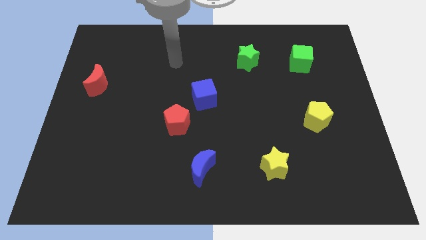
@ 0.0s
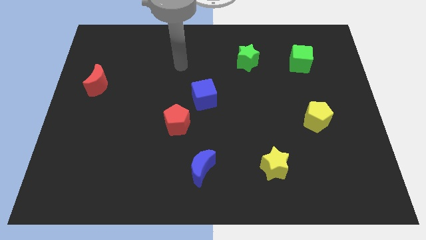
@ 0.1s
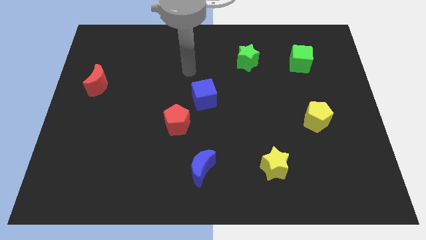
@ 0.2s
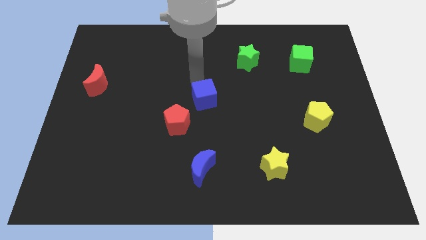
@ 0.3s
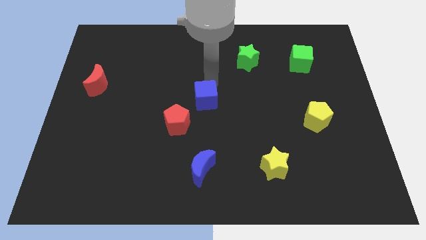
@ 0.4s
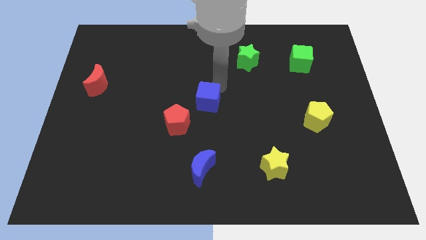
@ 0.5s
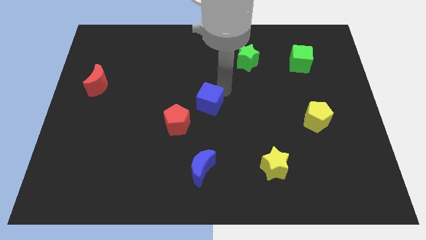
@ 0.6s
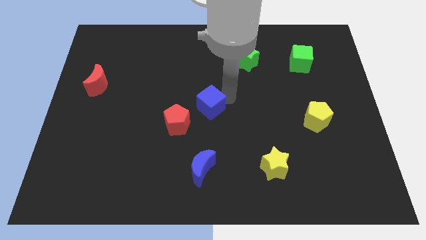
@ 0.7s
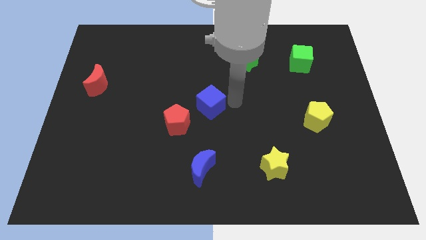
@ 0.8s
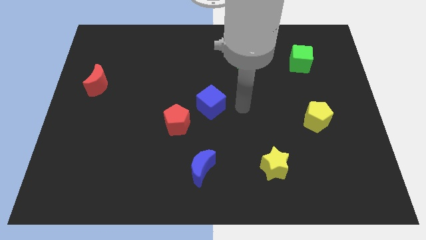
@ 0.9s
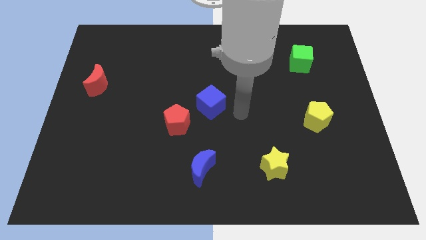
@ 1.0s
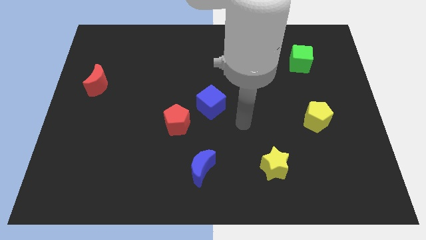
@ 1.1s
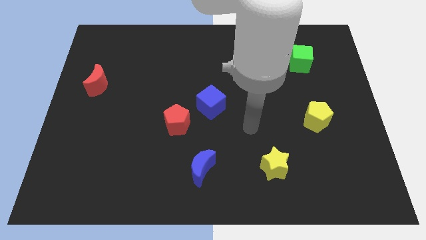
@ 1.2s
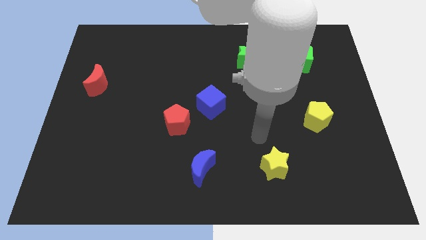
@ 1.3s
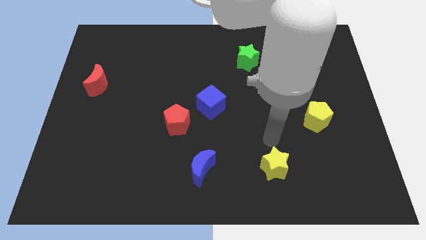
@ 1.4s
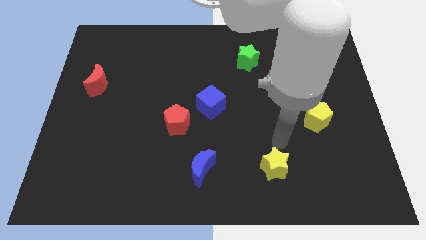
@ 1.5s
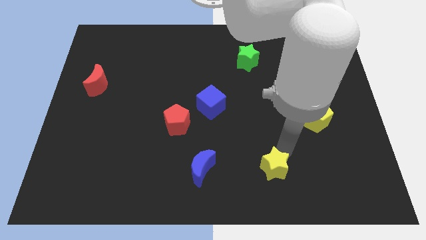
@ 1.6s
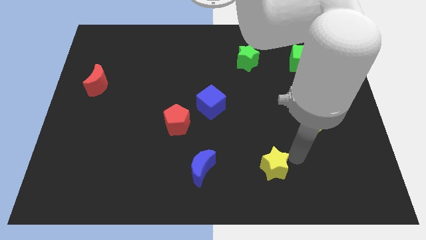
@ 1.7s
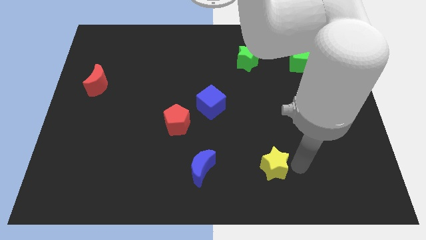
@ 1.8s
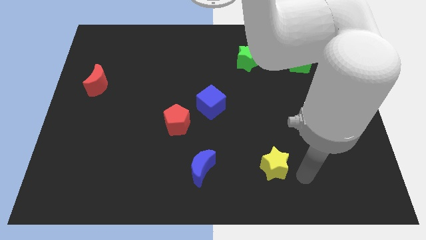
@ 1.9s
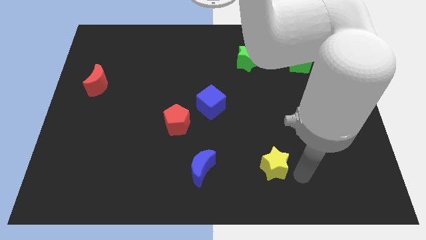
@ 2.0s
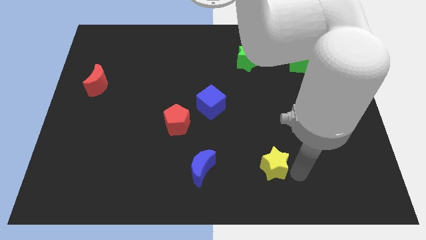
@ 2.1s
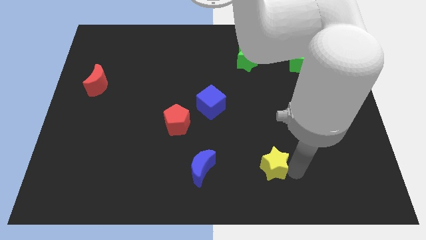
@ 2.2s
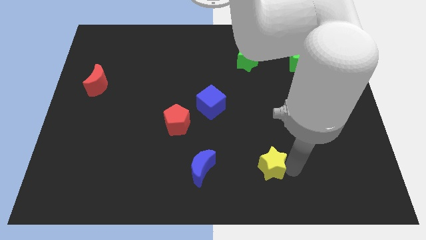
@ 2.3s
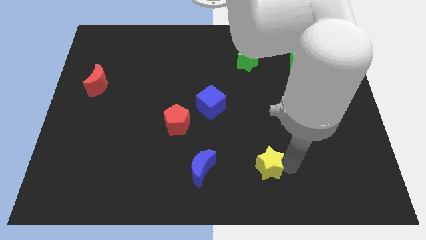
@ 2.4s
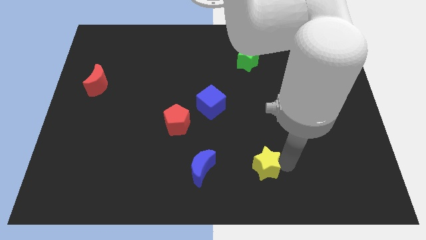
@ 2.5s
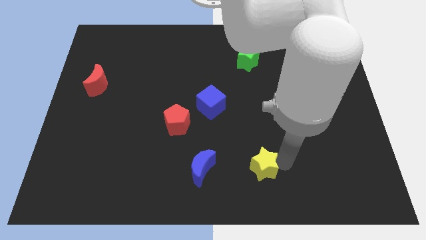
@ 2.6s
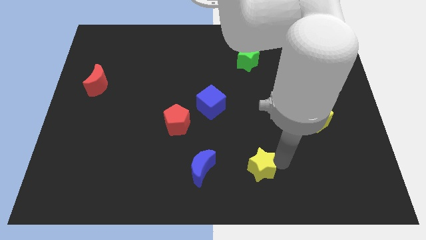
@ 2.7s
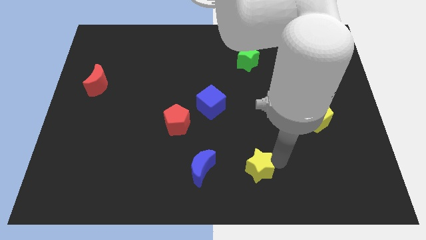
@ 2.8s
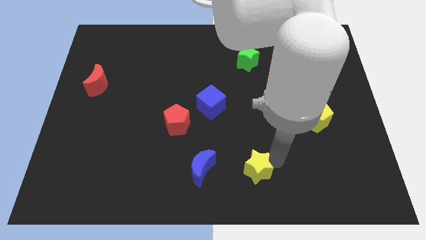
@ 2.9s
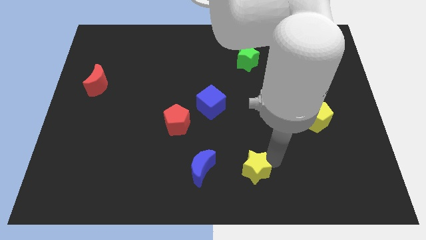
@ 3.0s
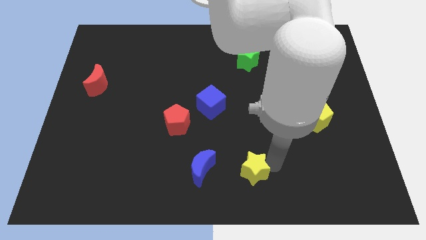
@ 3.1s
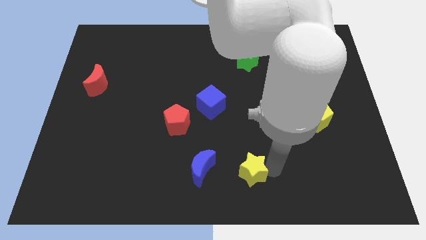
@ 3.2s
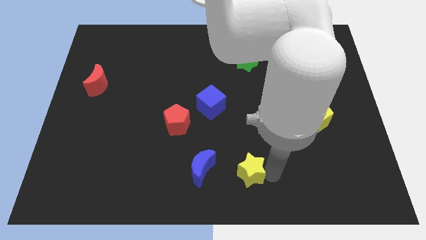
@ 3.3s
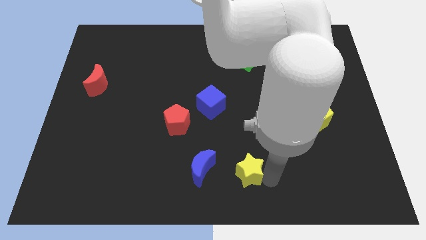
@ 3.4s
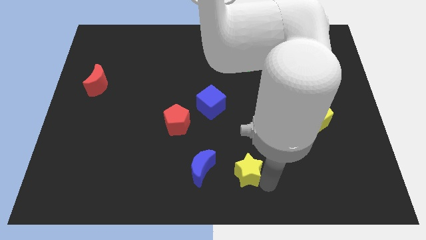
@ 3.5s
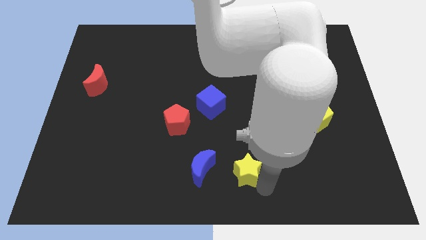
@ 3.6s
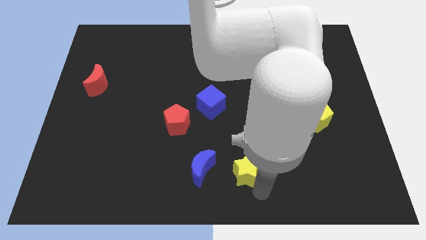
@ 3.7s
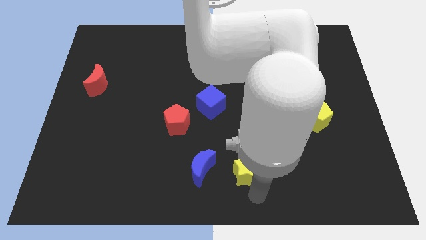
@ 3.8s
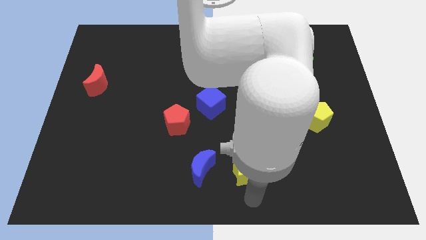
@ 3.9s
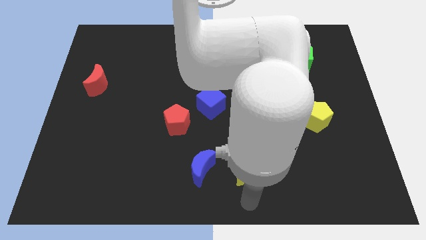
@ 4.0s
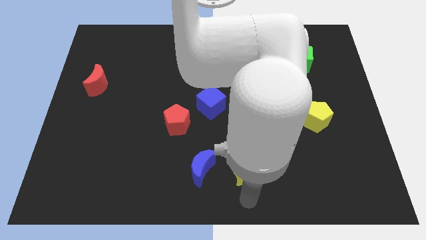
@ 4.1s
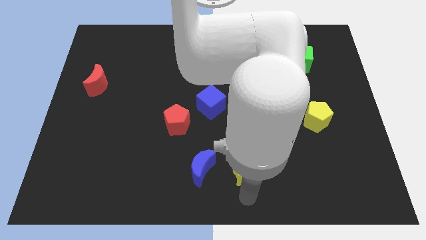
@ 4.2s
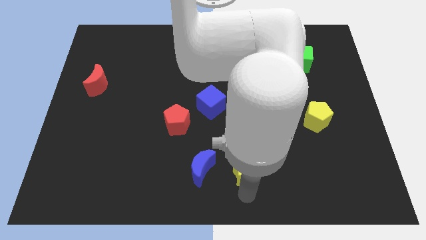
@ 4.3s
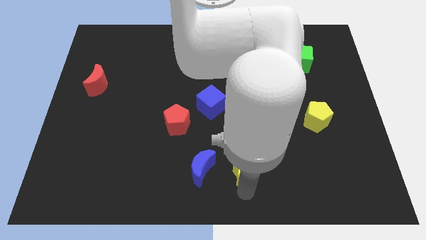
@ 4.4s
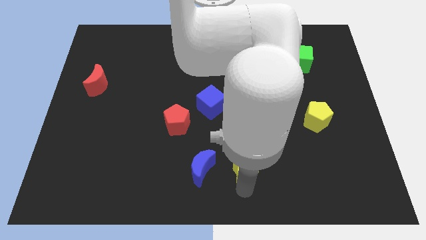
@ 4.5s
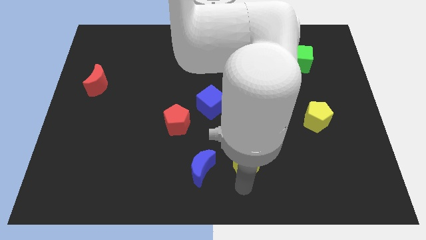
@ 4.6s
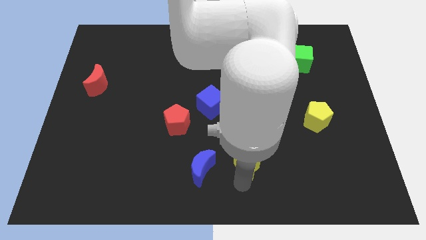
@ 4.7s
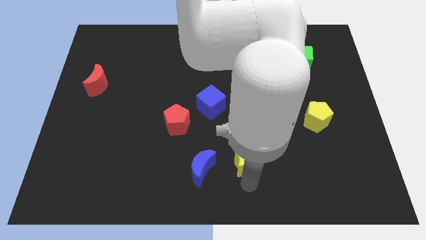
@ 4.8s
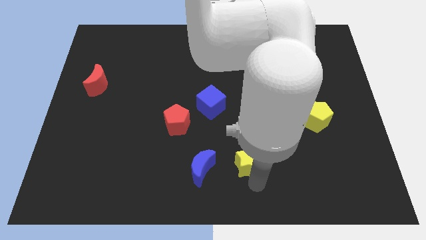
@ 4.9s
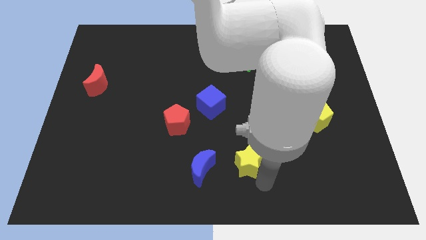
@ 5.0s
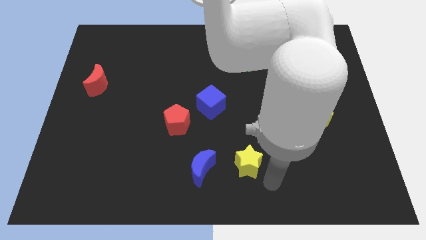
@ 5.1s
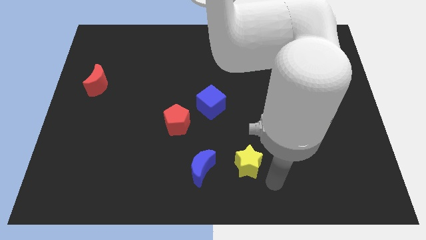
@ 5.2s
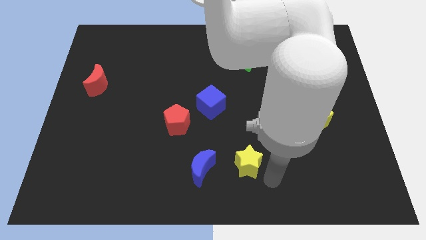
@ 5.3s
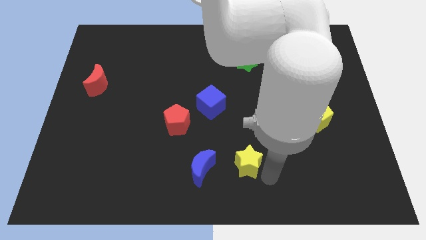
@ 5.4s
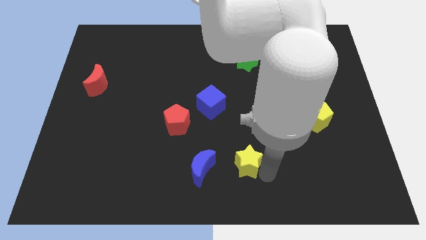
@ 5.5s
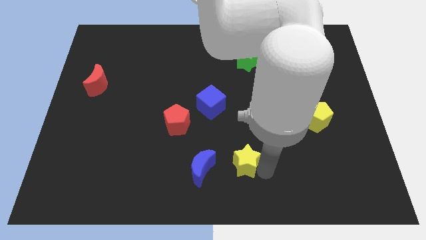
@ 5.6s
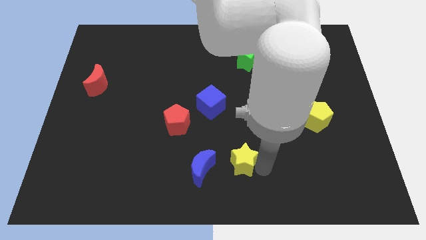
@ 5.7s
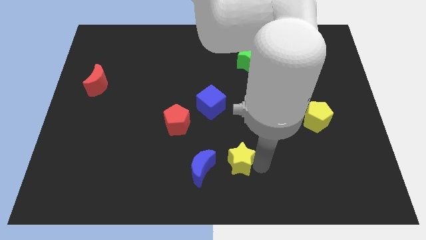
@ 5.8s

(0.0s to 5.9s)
slightly slide the yellow star left

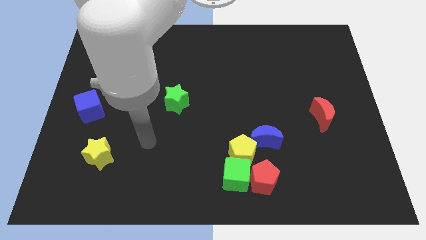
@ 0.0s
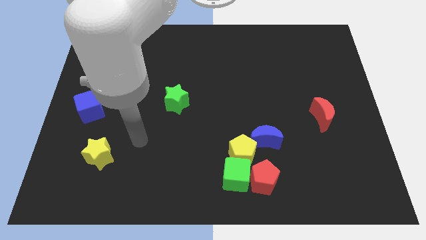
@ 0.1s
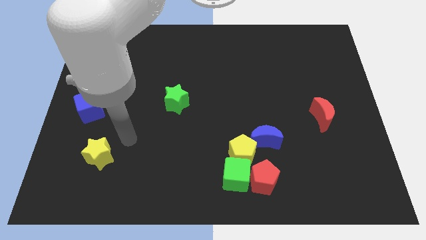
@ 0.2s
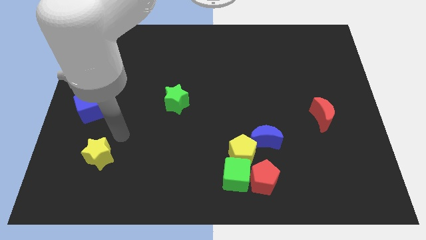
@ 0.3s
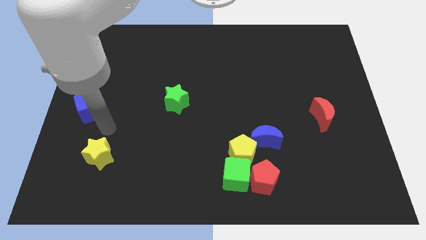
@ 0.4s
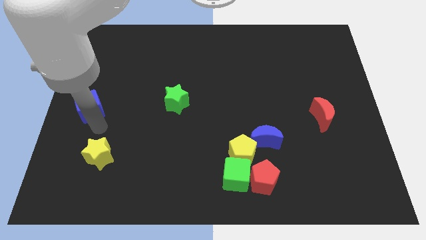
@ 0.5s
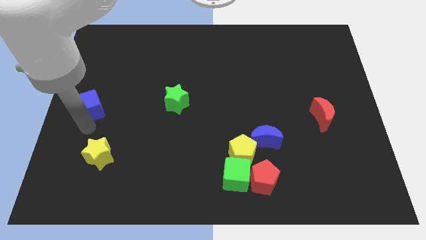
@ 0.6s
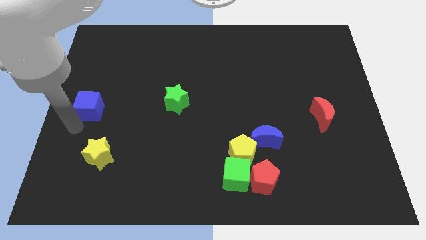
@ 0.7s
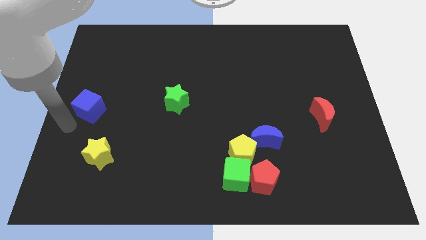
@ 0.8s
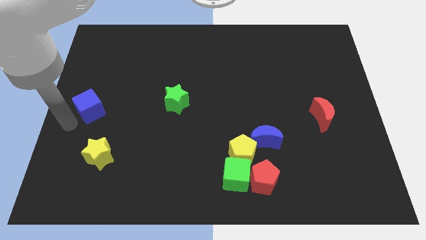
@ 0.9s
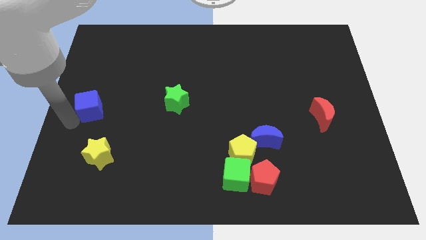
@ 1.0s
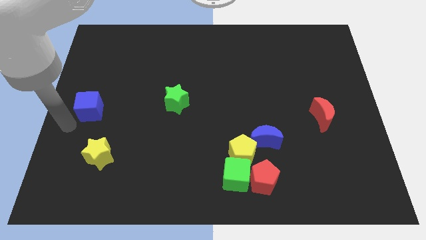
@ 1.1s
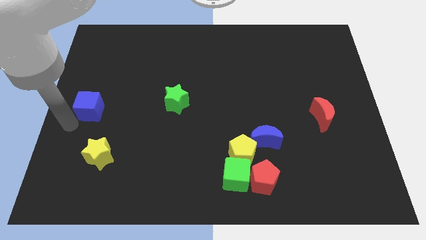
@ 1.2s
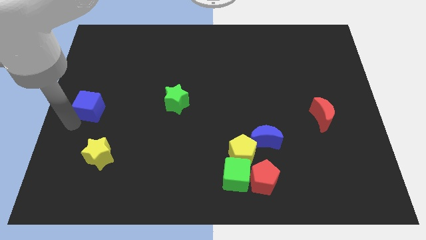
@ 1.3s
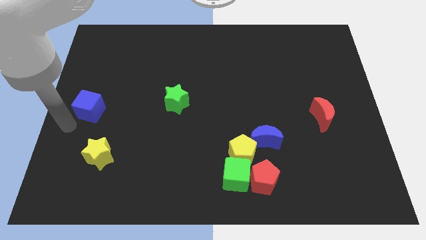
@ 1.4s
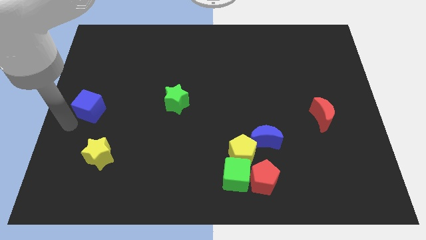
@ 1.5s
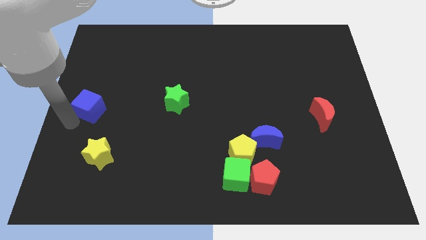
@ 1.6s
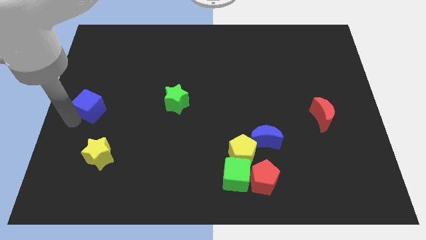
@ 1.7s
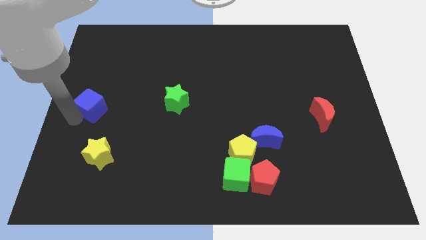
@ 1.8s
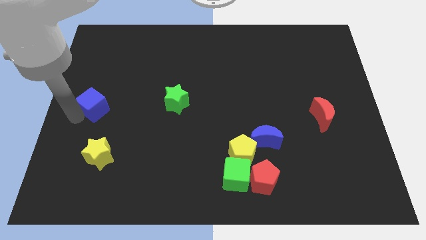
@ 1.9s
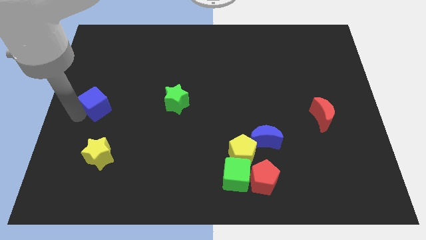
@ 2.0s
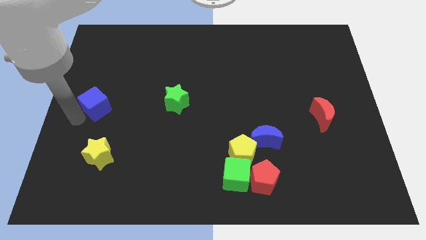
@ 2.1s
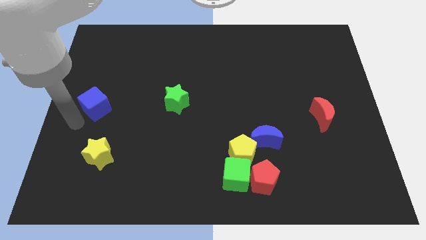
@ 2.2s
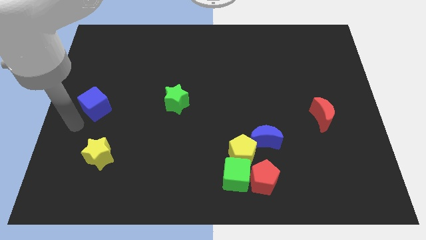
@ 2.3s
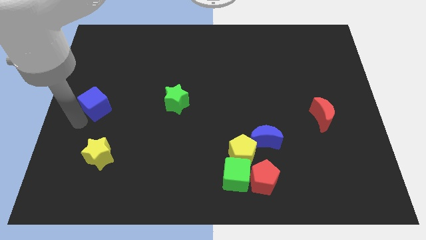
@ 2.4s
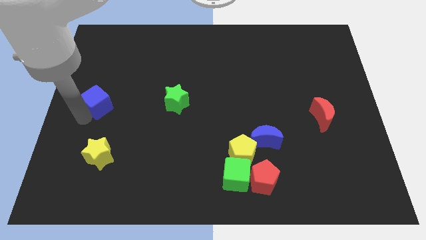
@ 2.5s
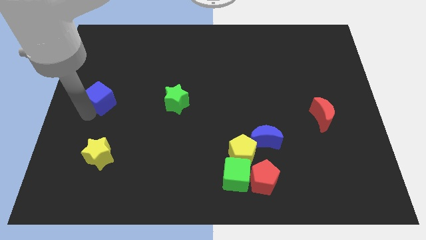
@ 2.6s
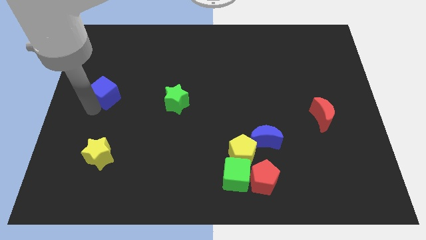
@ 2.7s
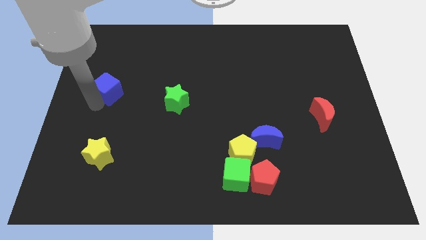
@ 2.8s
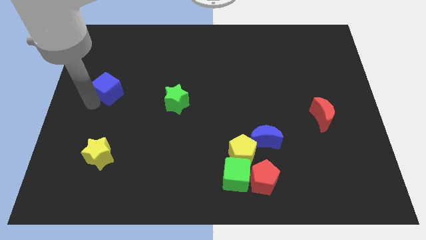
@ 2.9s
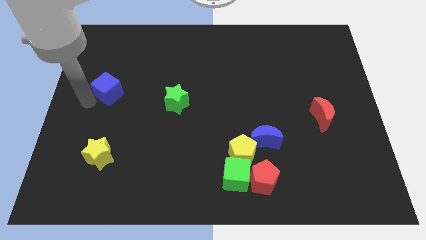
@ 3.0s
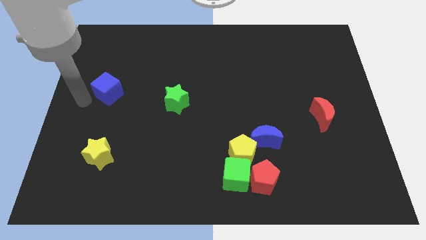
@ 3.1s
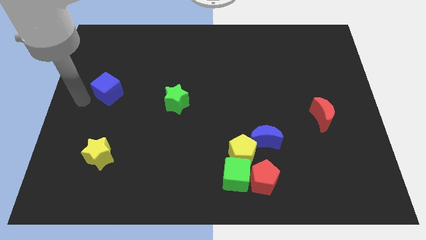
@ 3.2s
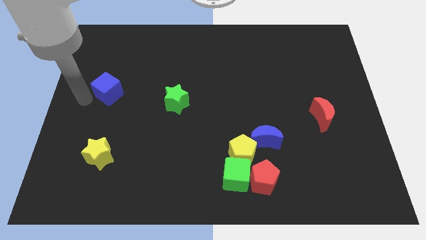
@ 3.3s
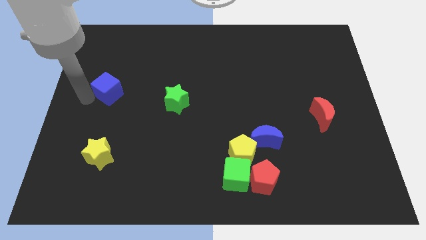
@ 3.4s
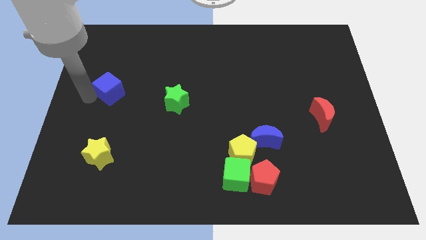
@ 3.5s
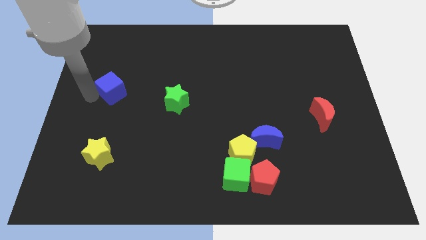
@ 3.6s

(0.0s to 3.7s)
move the blue cube slightly upwards and right
